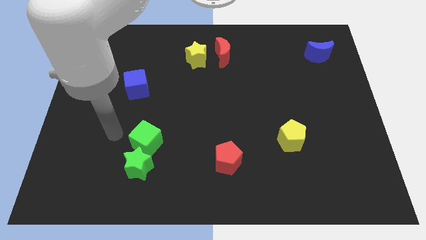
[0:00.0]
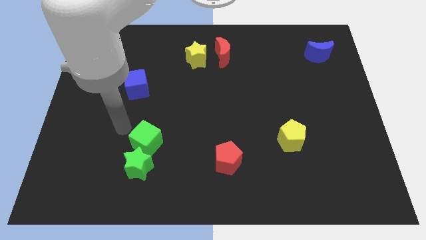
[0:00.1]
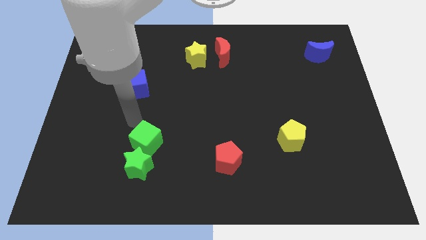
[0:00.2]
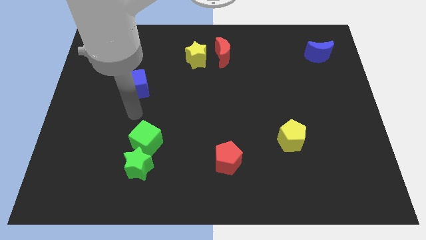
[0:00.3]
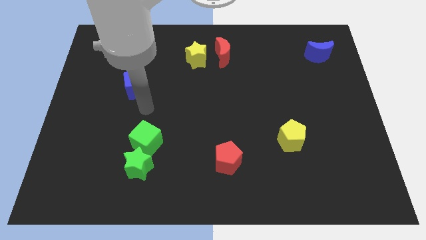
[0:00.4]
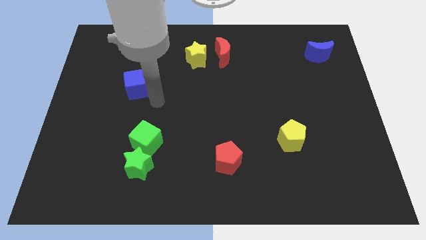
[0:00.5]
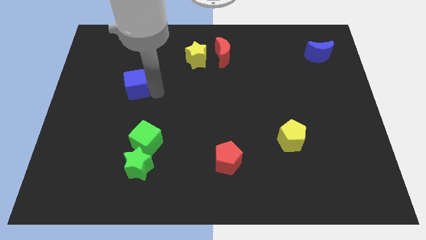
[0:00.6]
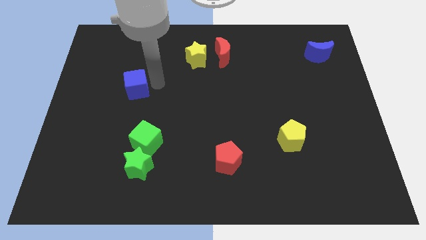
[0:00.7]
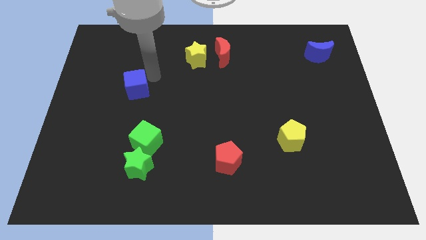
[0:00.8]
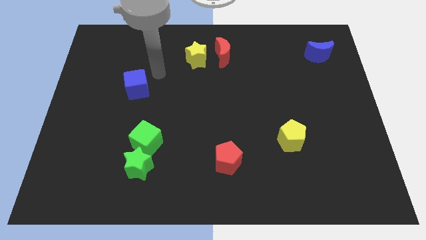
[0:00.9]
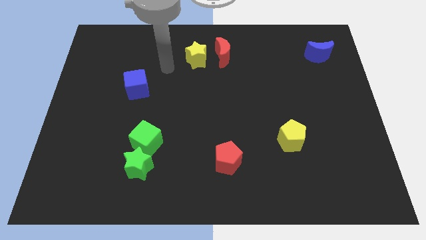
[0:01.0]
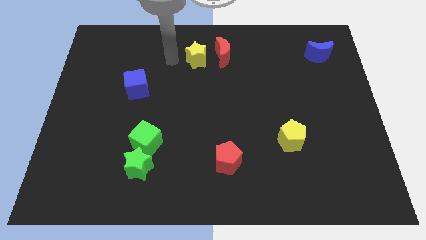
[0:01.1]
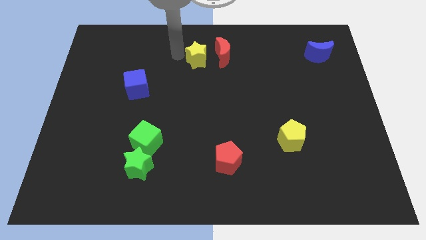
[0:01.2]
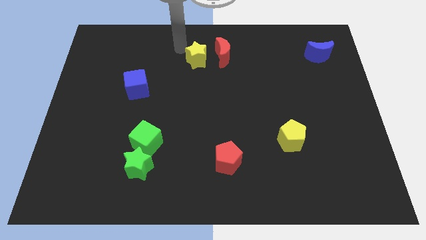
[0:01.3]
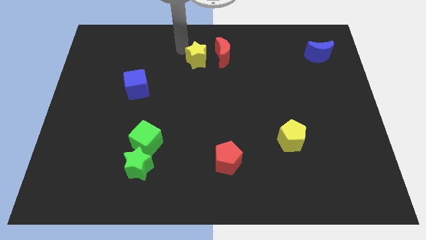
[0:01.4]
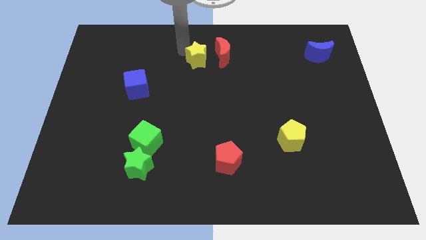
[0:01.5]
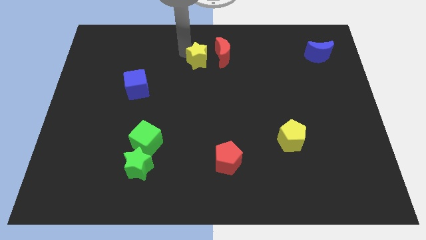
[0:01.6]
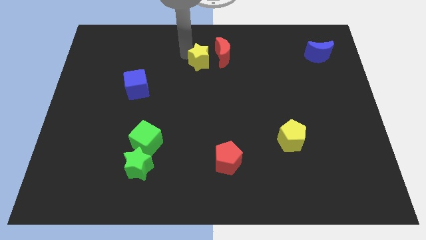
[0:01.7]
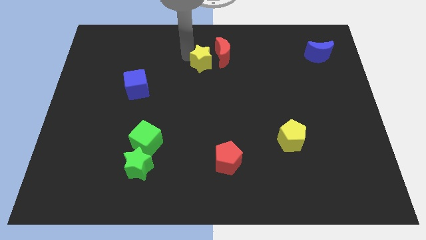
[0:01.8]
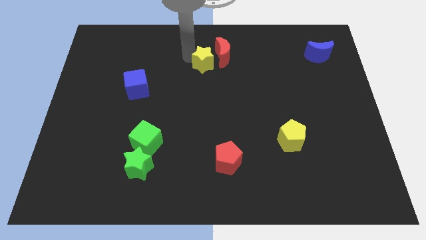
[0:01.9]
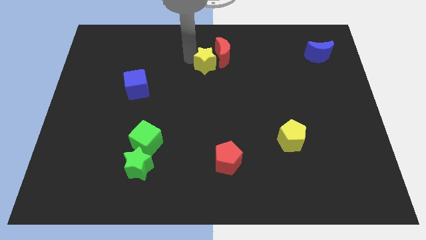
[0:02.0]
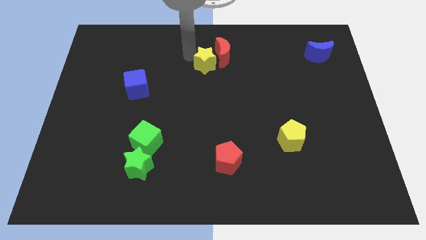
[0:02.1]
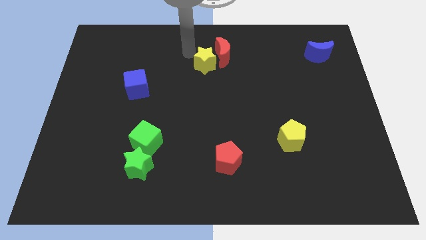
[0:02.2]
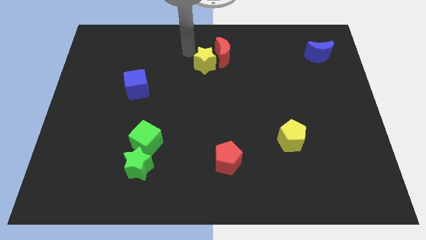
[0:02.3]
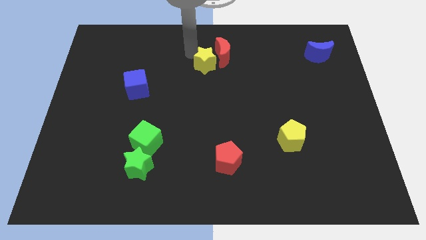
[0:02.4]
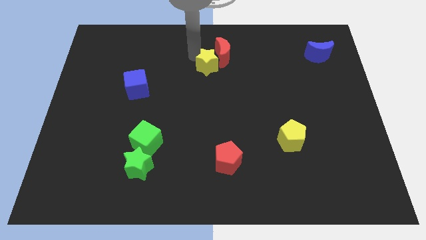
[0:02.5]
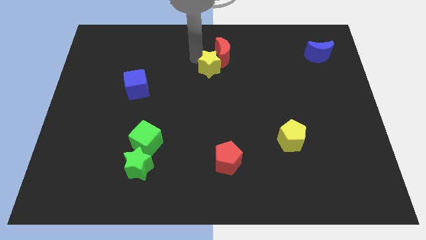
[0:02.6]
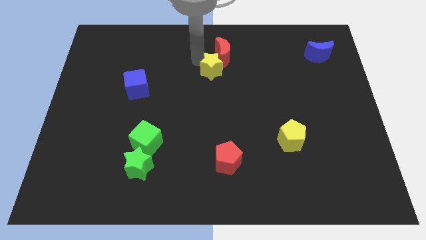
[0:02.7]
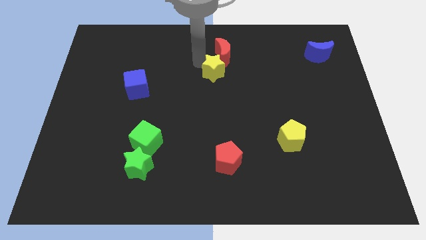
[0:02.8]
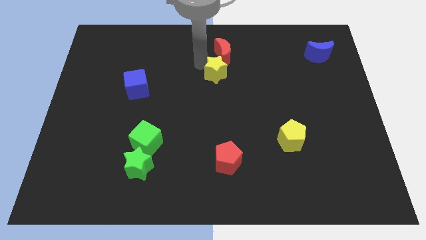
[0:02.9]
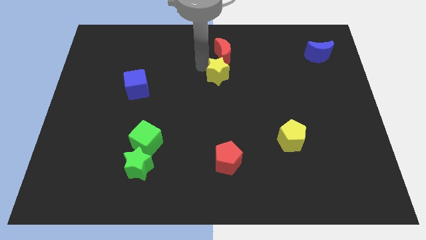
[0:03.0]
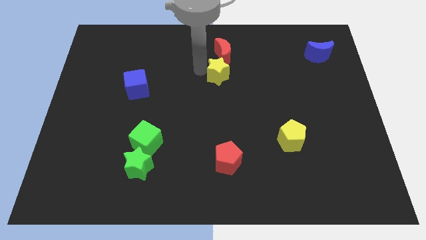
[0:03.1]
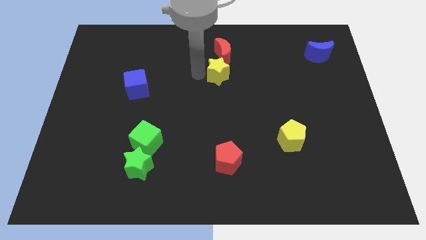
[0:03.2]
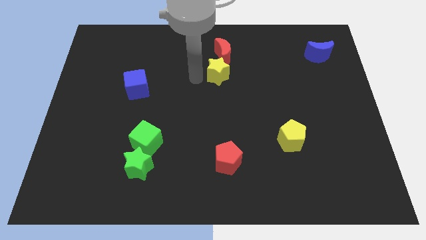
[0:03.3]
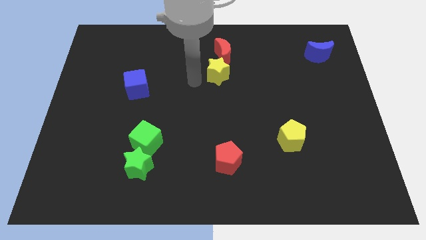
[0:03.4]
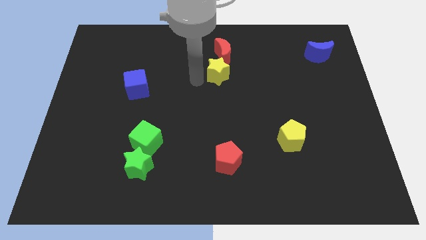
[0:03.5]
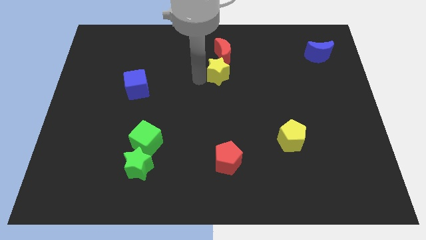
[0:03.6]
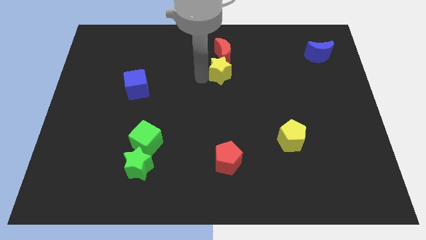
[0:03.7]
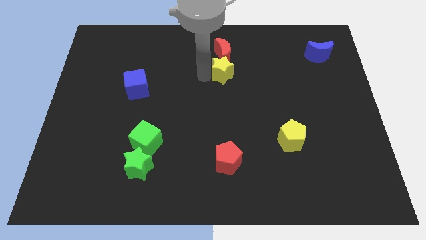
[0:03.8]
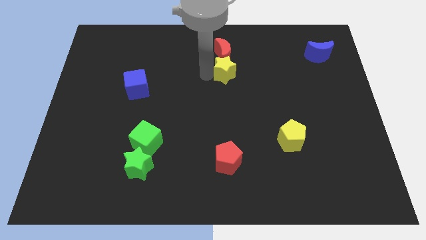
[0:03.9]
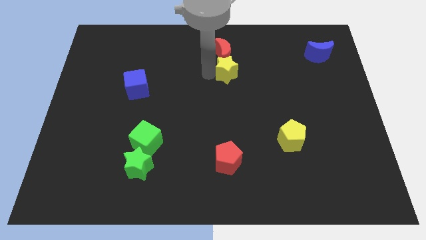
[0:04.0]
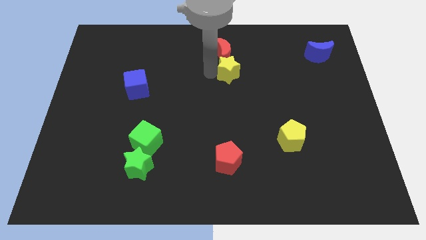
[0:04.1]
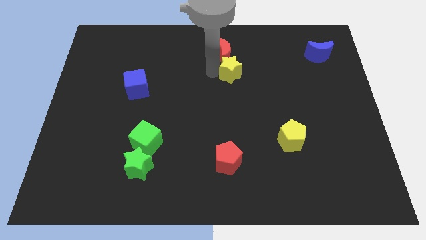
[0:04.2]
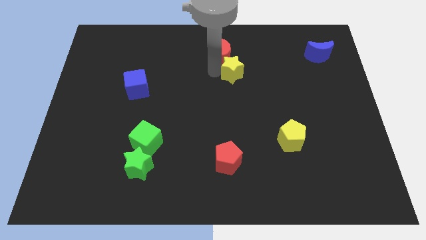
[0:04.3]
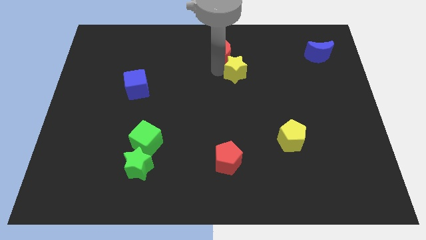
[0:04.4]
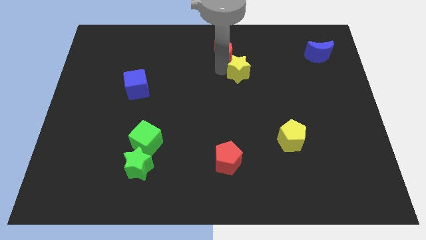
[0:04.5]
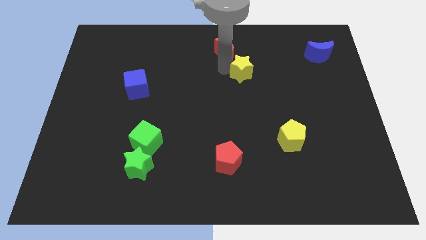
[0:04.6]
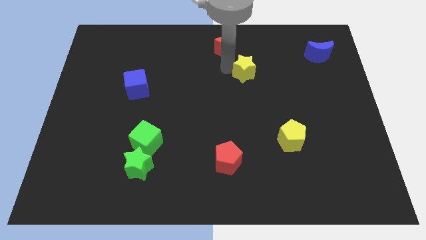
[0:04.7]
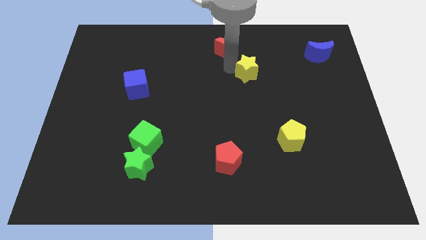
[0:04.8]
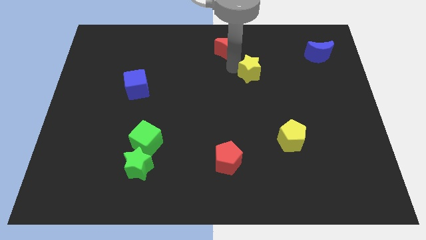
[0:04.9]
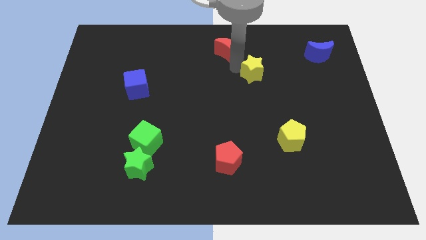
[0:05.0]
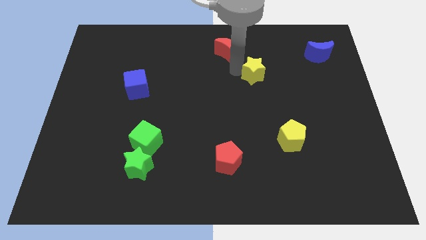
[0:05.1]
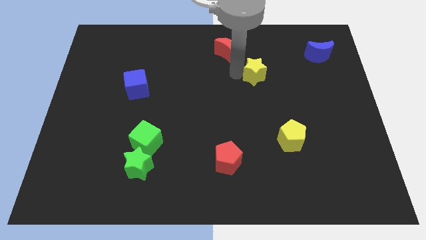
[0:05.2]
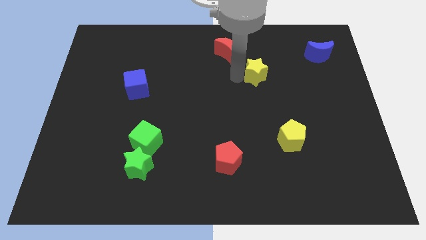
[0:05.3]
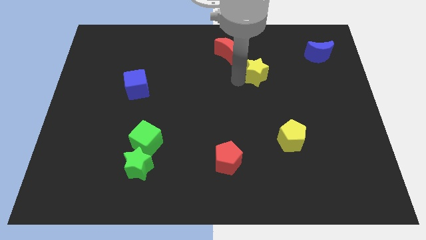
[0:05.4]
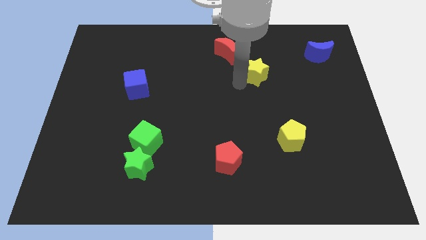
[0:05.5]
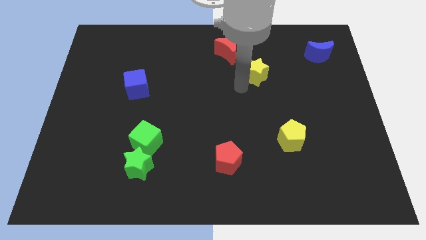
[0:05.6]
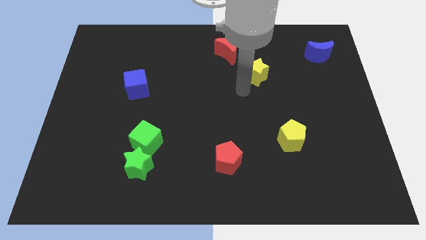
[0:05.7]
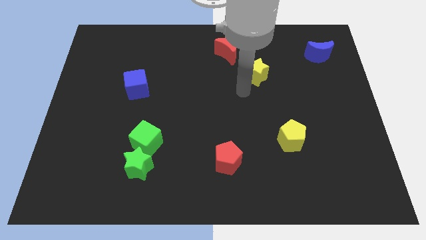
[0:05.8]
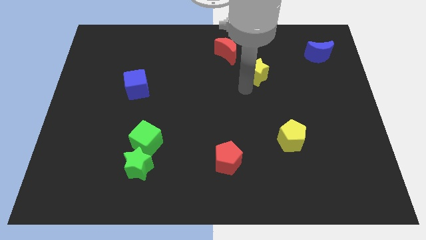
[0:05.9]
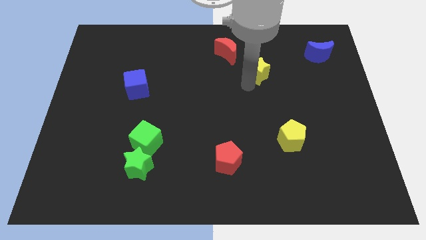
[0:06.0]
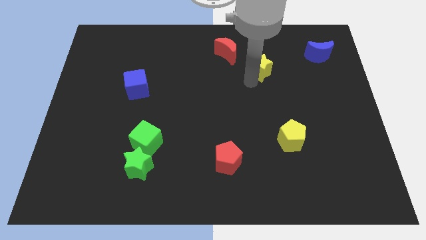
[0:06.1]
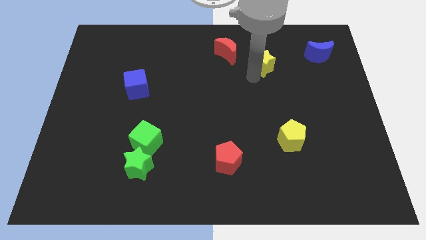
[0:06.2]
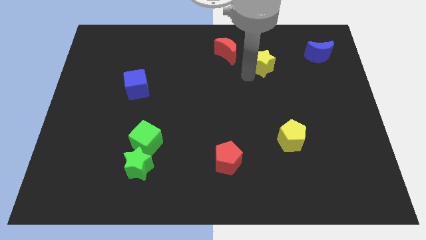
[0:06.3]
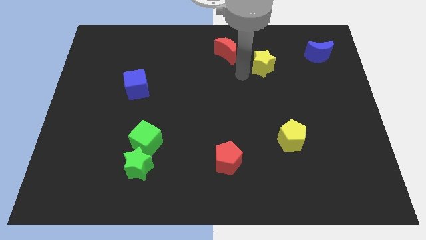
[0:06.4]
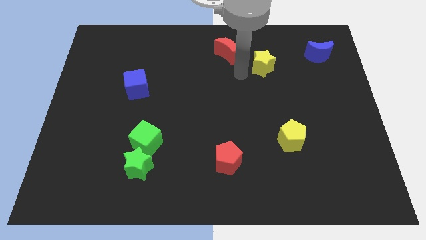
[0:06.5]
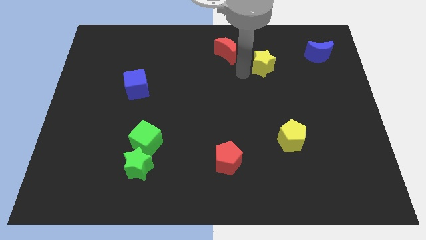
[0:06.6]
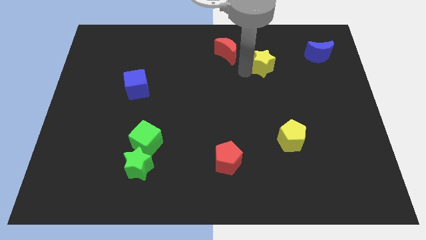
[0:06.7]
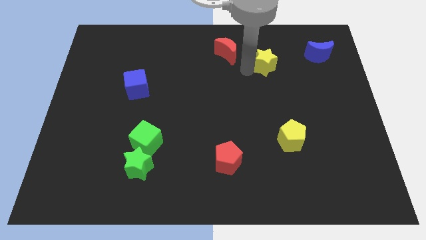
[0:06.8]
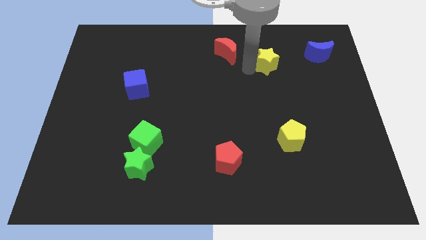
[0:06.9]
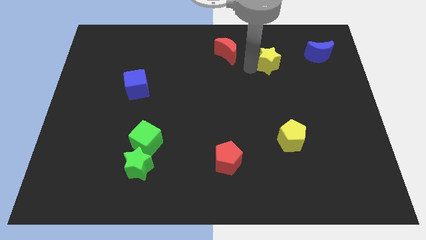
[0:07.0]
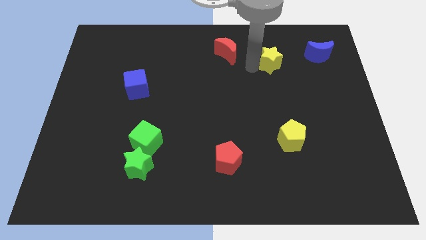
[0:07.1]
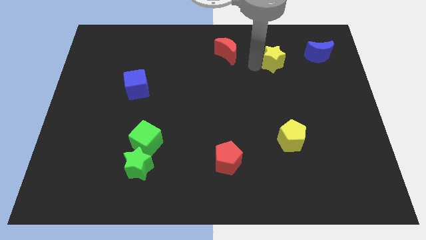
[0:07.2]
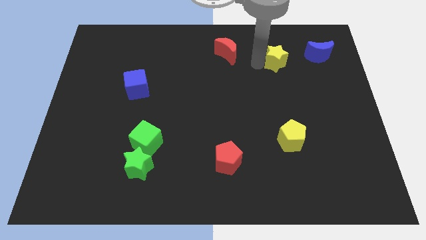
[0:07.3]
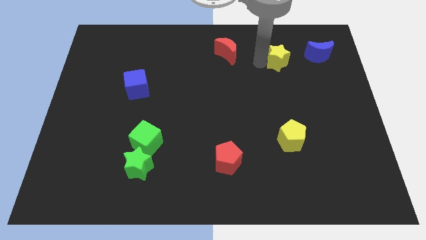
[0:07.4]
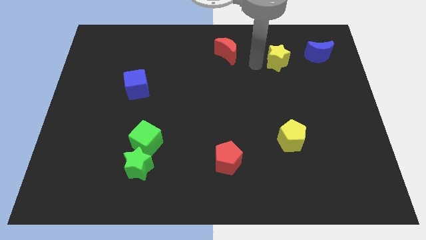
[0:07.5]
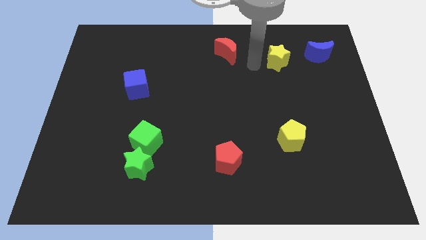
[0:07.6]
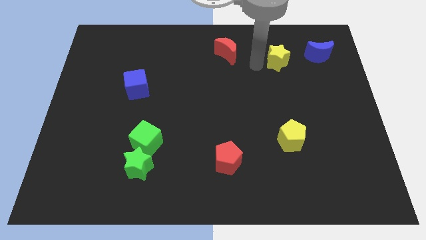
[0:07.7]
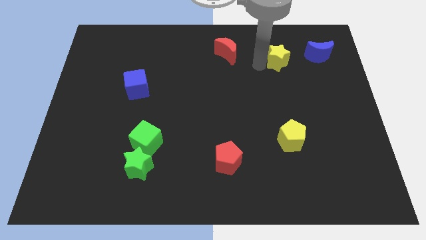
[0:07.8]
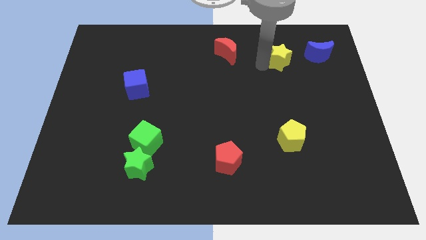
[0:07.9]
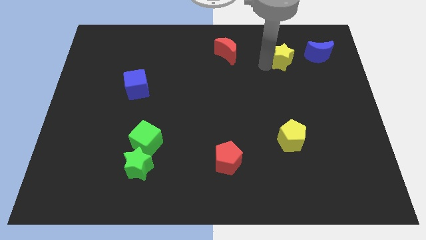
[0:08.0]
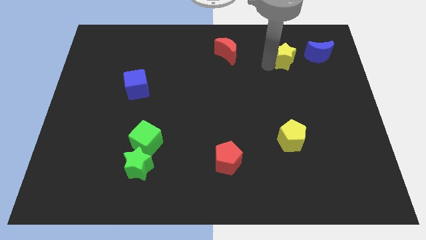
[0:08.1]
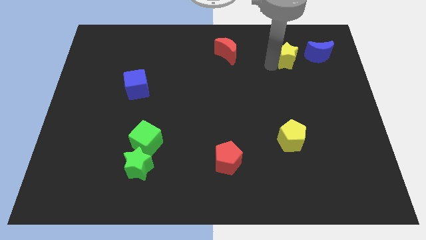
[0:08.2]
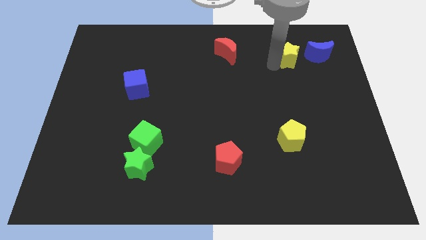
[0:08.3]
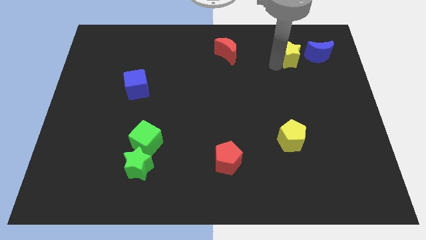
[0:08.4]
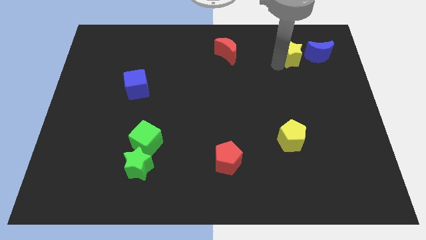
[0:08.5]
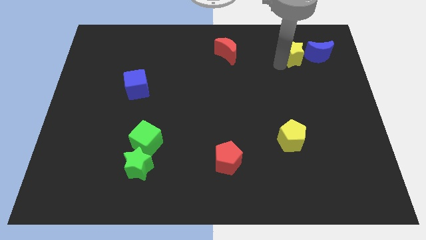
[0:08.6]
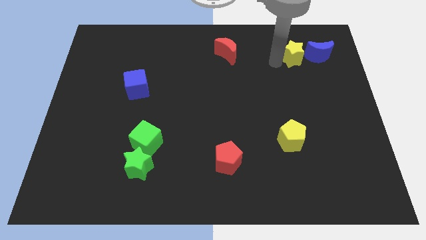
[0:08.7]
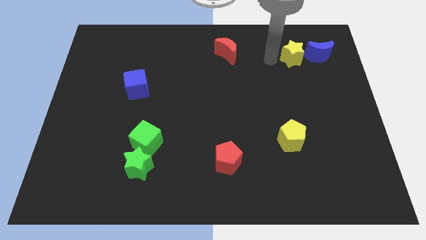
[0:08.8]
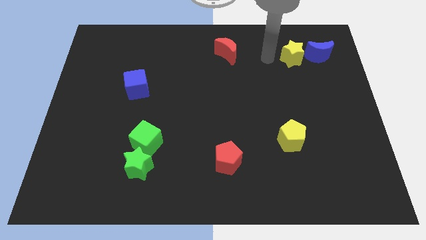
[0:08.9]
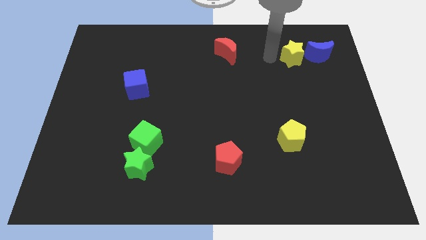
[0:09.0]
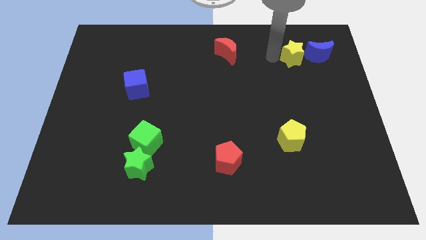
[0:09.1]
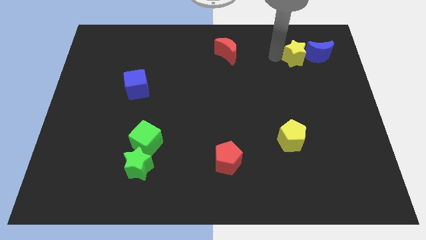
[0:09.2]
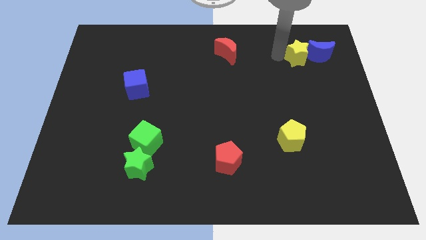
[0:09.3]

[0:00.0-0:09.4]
move the yellow star to the blue moon
